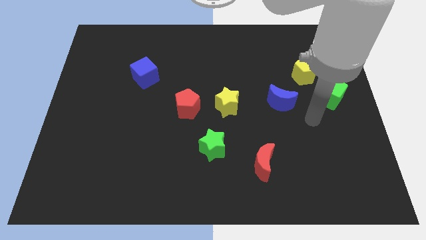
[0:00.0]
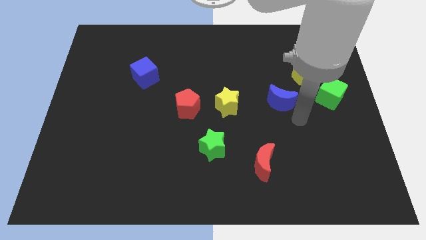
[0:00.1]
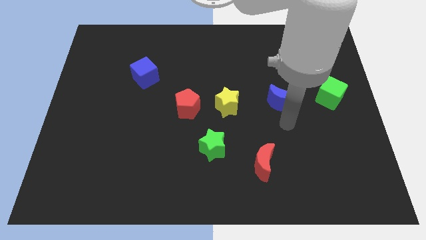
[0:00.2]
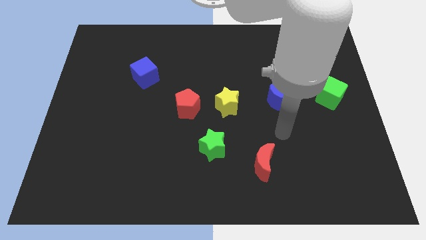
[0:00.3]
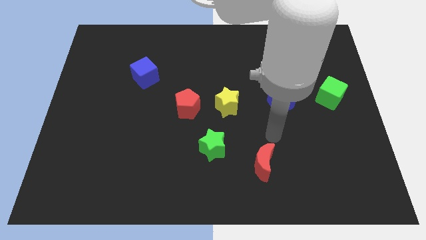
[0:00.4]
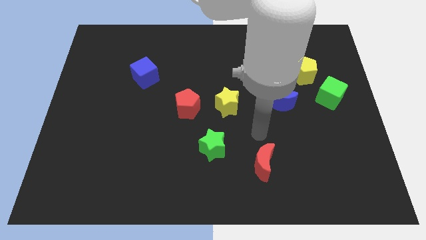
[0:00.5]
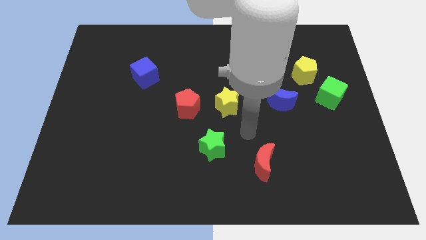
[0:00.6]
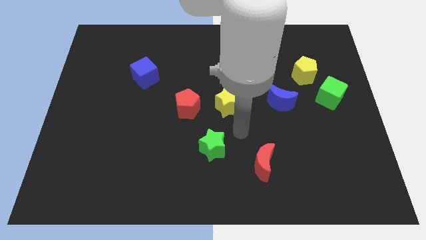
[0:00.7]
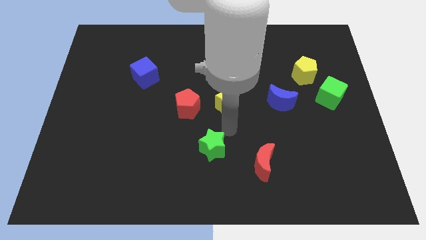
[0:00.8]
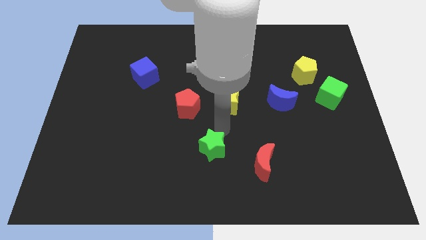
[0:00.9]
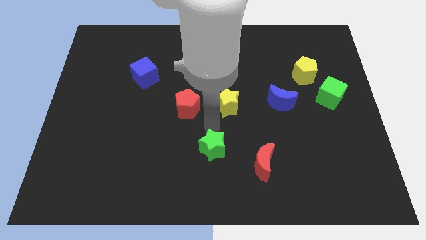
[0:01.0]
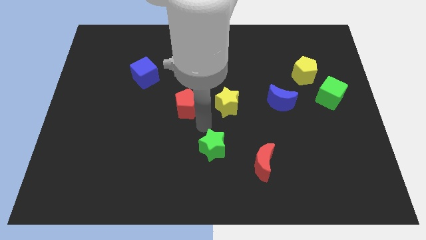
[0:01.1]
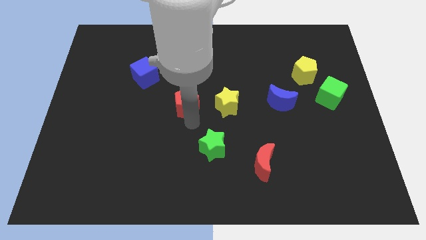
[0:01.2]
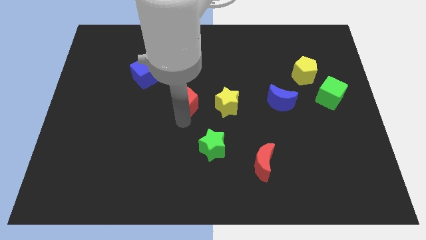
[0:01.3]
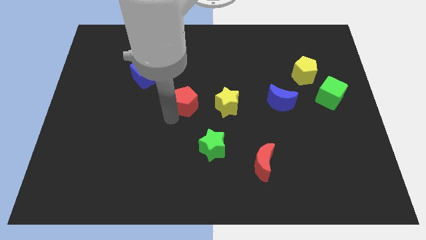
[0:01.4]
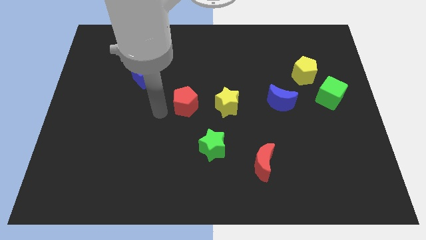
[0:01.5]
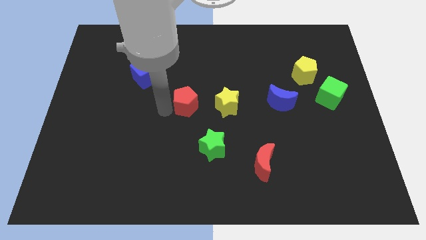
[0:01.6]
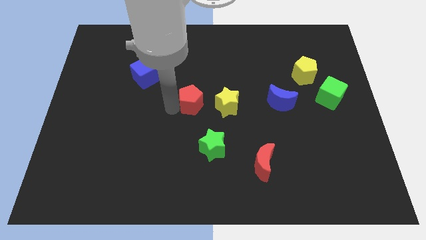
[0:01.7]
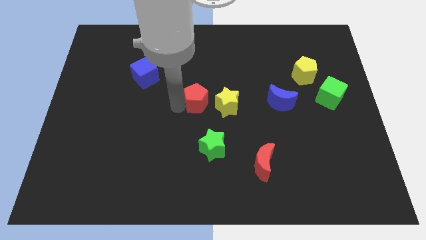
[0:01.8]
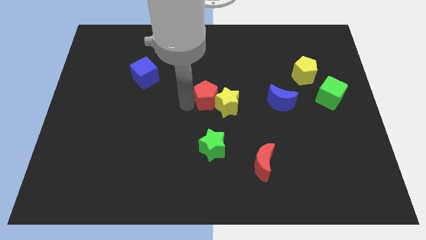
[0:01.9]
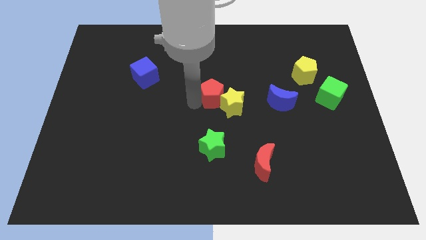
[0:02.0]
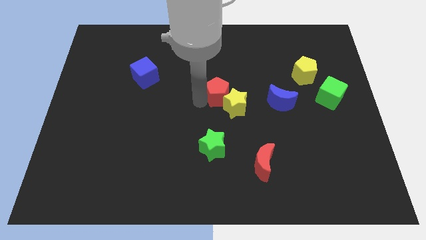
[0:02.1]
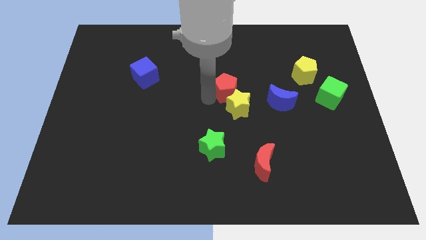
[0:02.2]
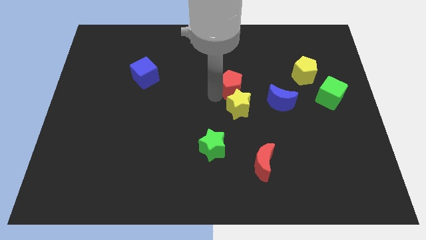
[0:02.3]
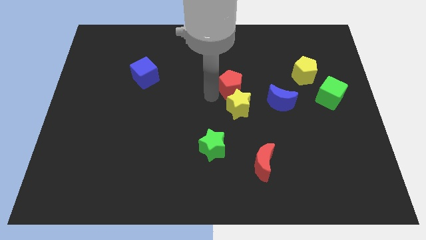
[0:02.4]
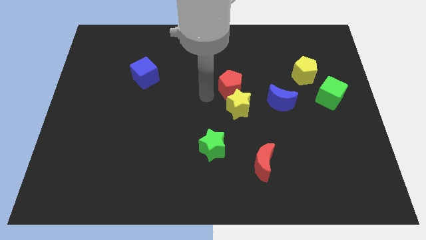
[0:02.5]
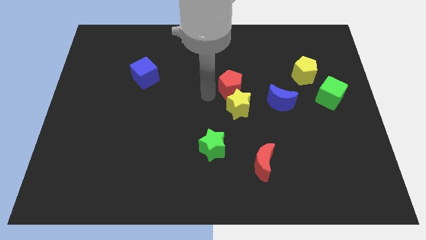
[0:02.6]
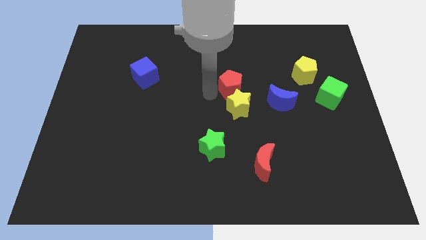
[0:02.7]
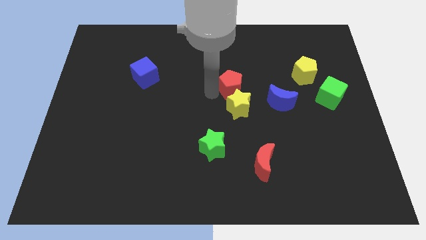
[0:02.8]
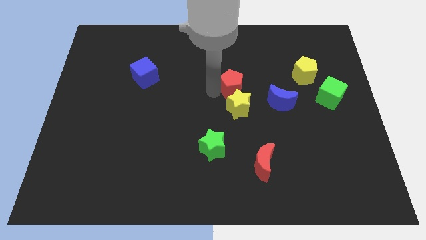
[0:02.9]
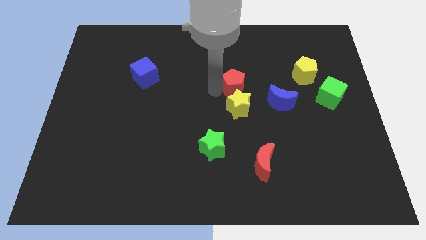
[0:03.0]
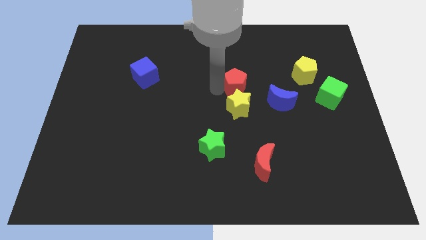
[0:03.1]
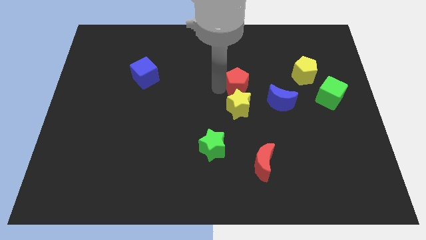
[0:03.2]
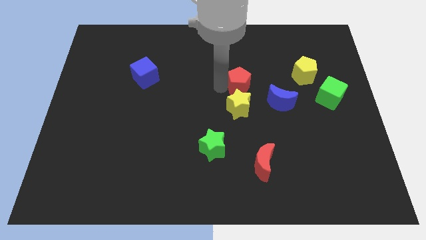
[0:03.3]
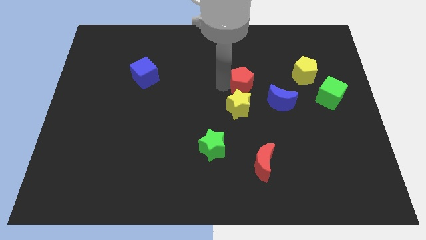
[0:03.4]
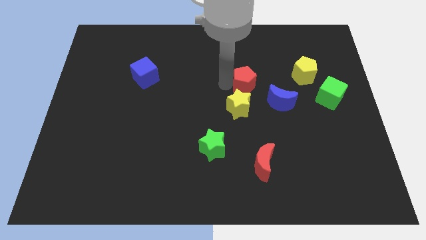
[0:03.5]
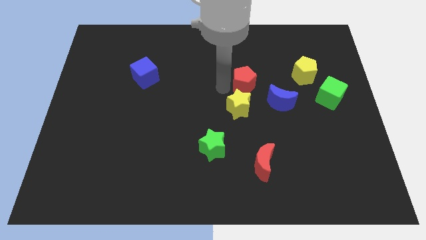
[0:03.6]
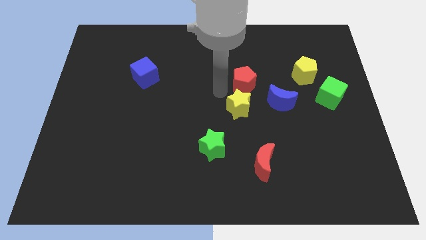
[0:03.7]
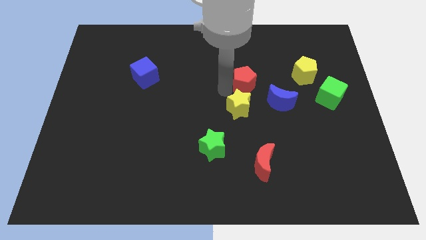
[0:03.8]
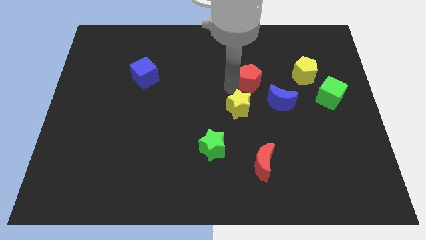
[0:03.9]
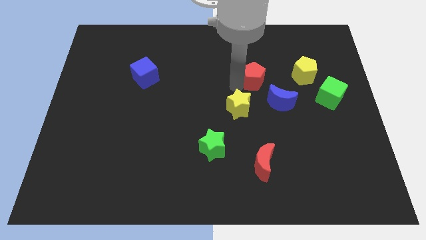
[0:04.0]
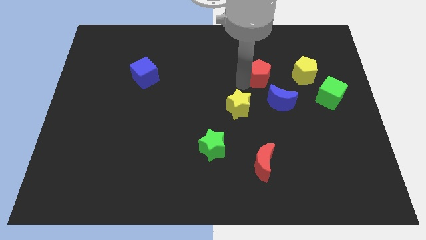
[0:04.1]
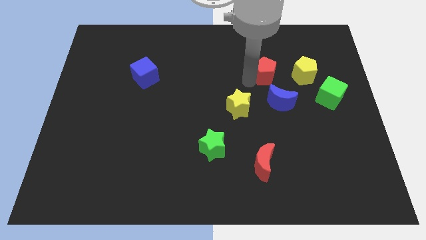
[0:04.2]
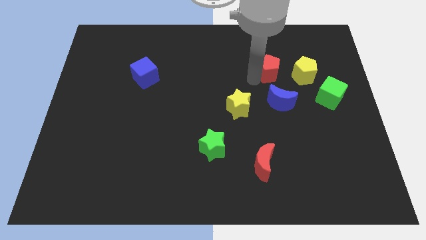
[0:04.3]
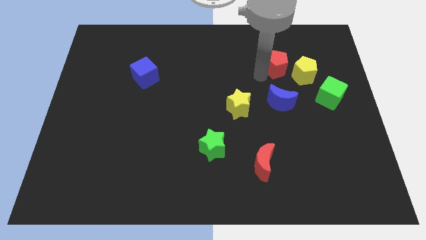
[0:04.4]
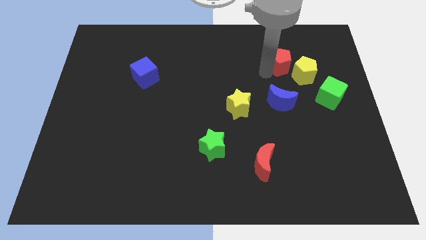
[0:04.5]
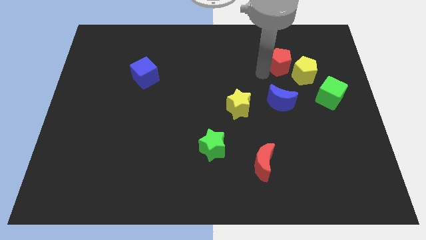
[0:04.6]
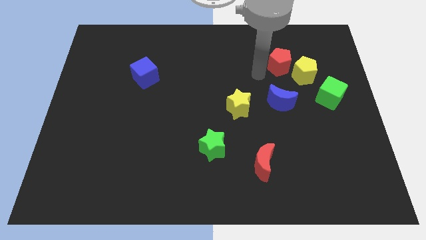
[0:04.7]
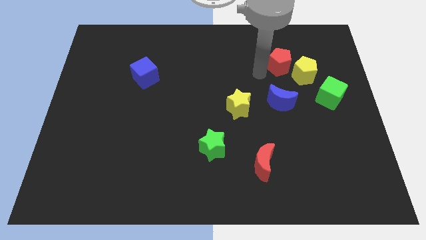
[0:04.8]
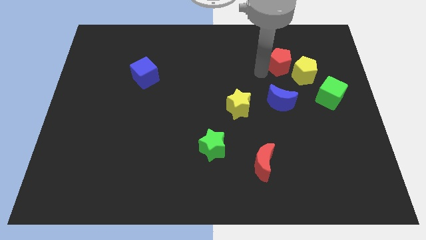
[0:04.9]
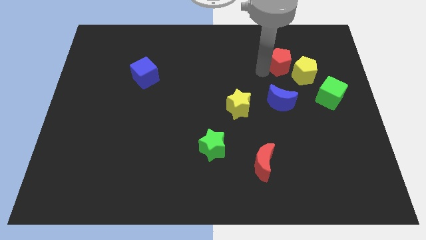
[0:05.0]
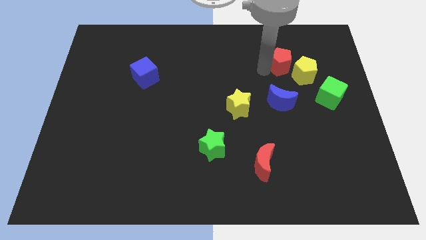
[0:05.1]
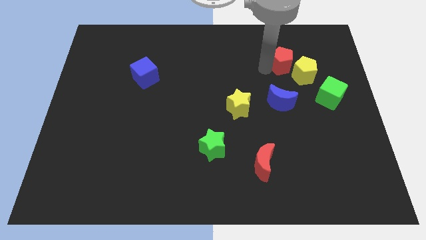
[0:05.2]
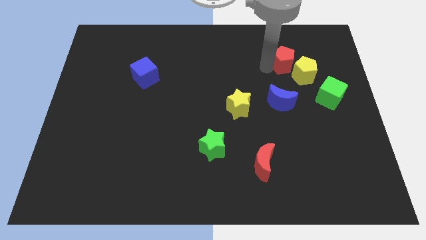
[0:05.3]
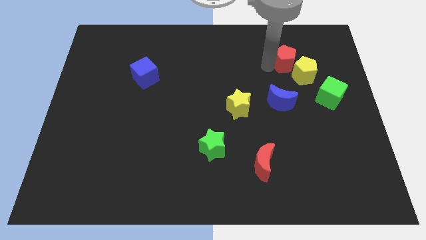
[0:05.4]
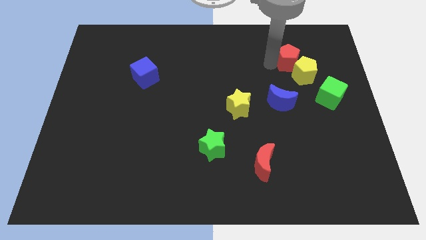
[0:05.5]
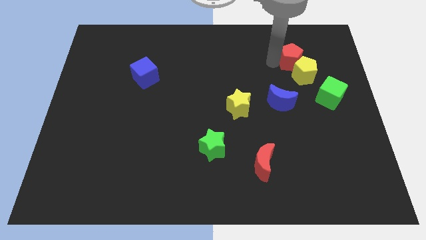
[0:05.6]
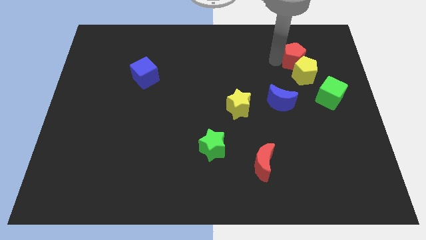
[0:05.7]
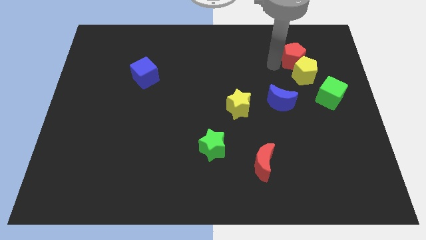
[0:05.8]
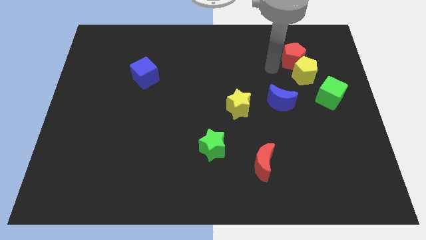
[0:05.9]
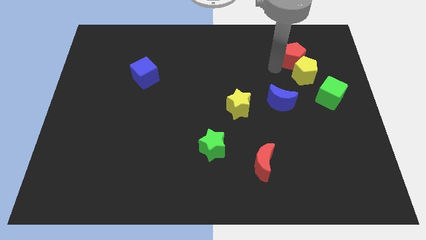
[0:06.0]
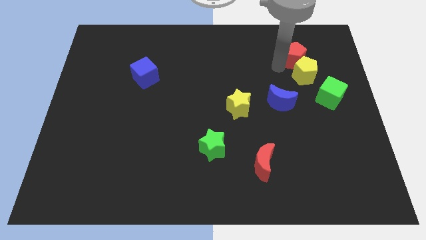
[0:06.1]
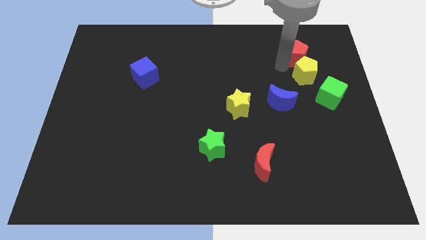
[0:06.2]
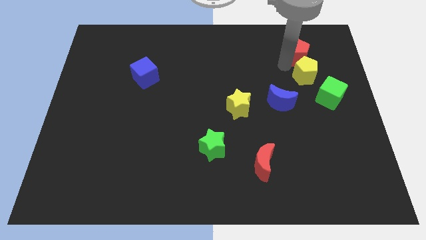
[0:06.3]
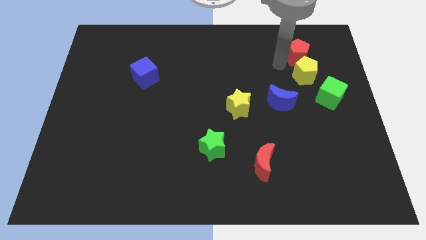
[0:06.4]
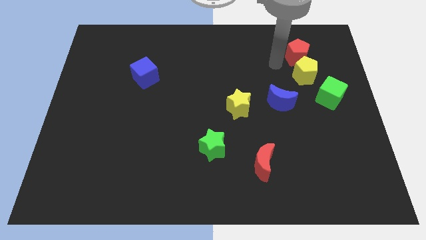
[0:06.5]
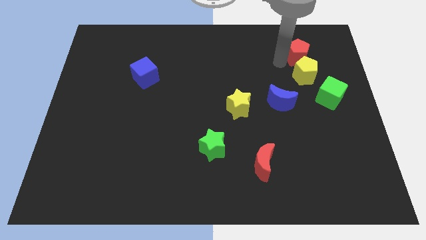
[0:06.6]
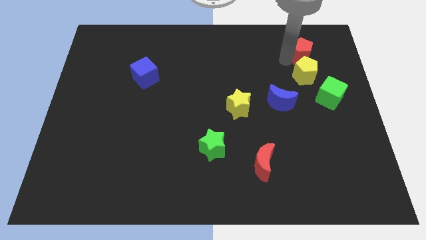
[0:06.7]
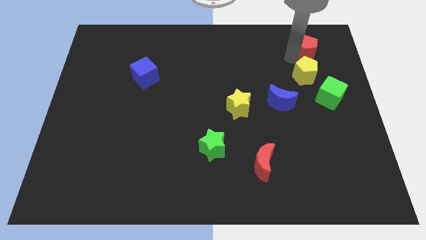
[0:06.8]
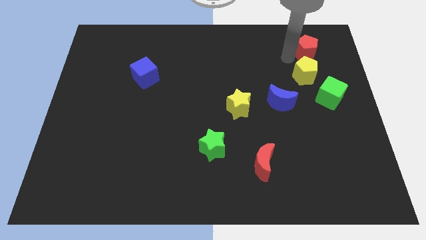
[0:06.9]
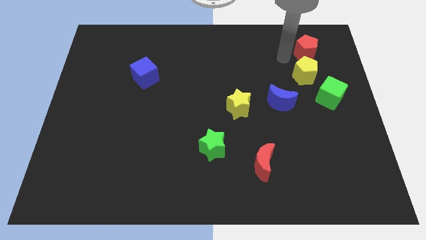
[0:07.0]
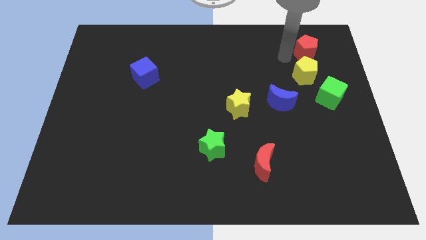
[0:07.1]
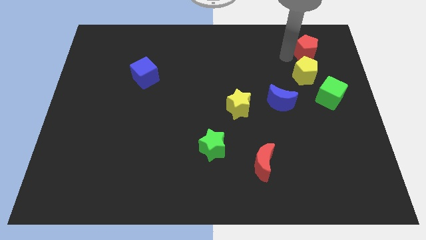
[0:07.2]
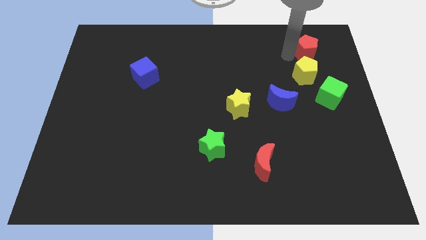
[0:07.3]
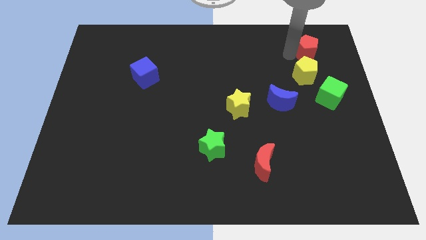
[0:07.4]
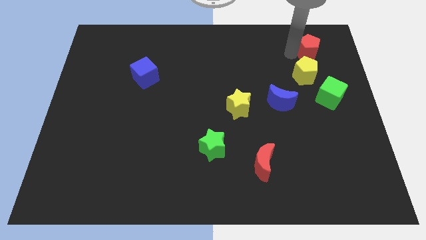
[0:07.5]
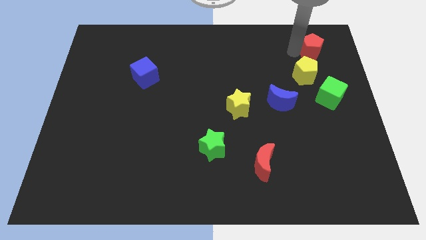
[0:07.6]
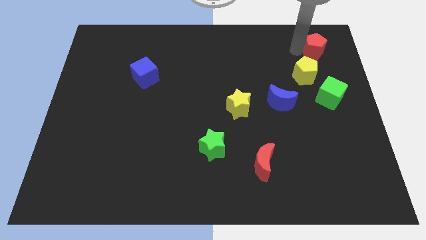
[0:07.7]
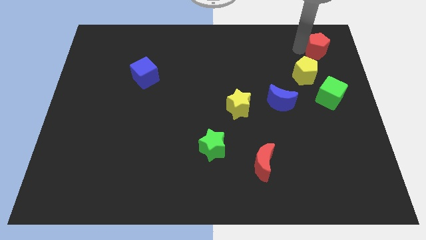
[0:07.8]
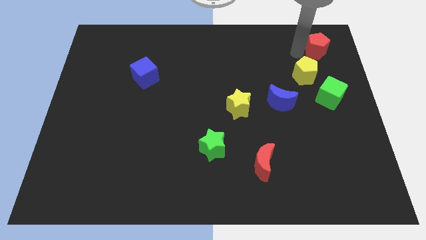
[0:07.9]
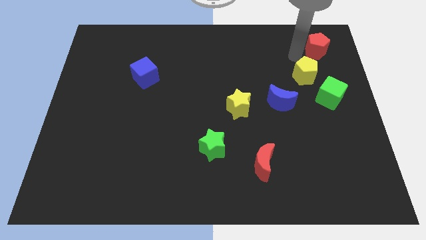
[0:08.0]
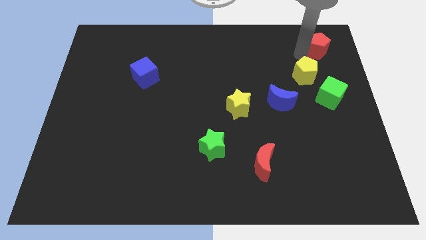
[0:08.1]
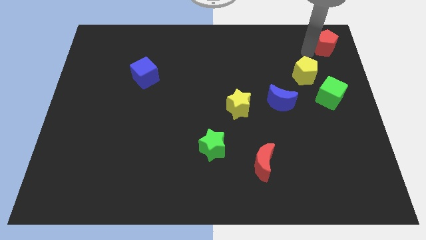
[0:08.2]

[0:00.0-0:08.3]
move the red pentagon to the top right
